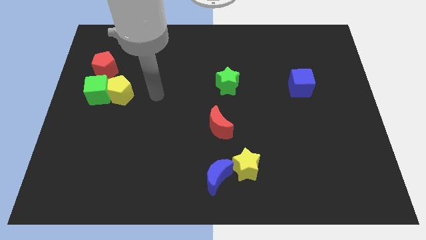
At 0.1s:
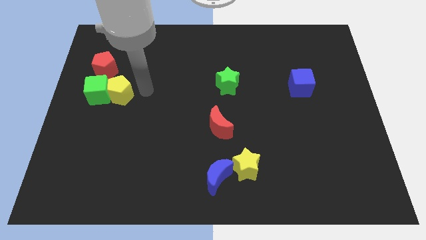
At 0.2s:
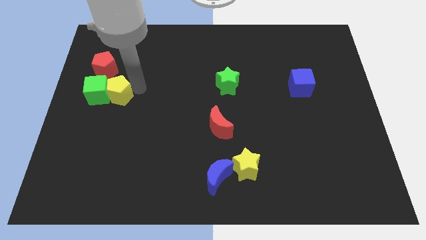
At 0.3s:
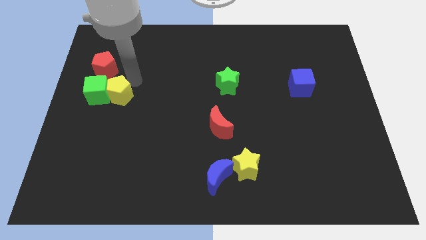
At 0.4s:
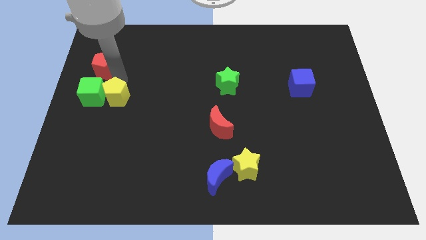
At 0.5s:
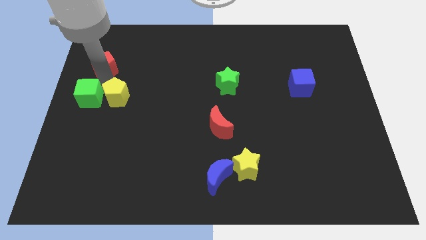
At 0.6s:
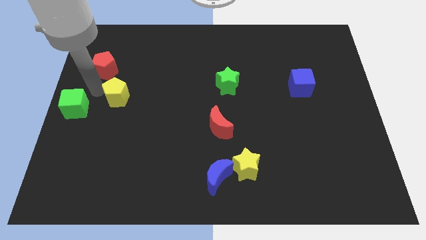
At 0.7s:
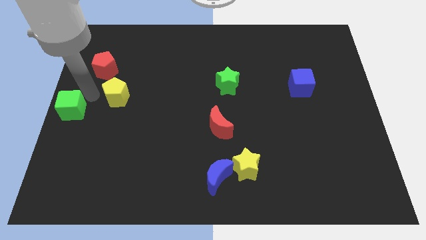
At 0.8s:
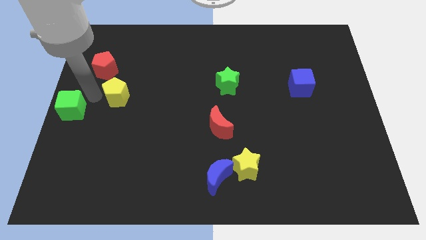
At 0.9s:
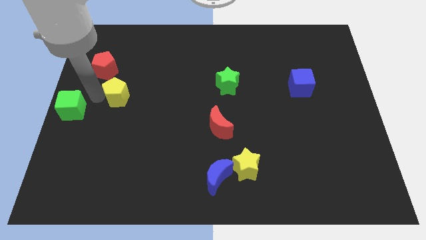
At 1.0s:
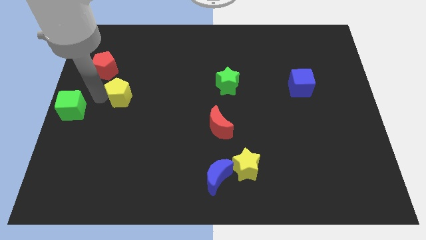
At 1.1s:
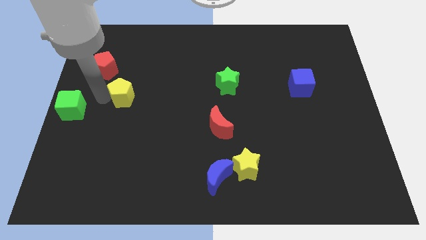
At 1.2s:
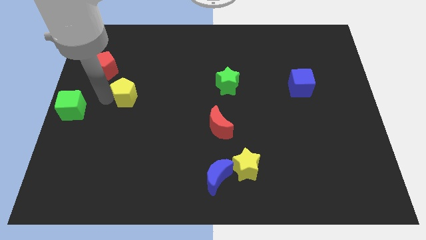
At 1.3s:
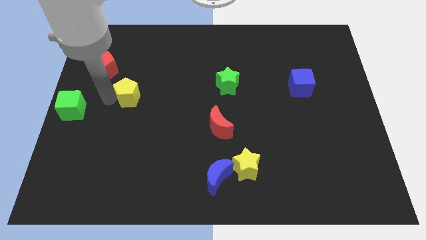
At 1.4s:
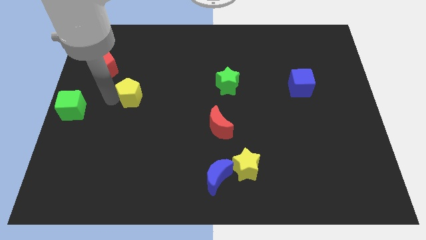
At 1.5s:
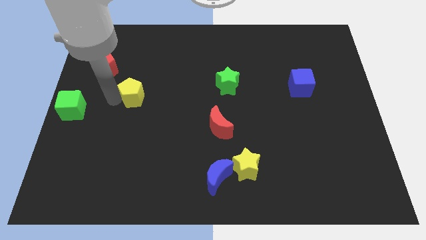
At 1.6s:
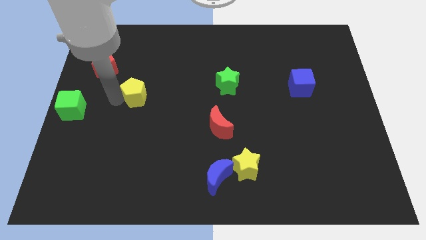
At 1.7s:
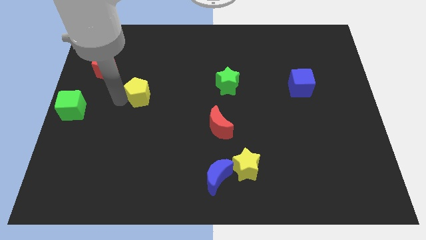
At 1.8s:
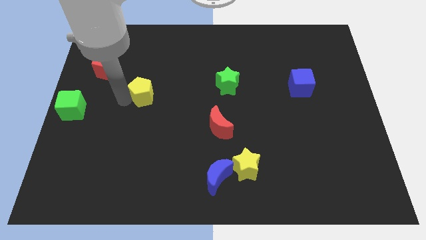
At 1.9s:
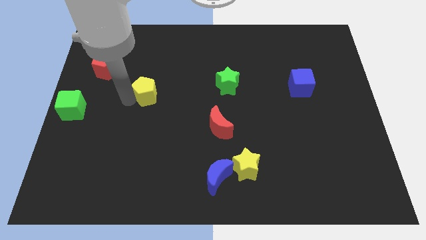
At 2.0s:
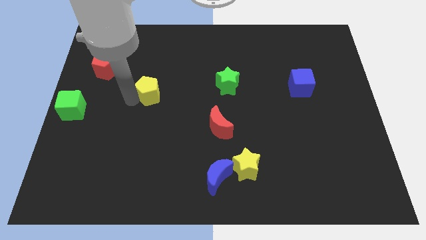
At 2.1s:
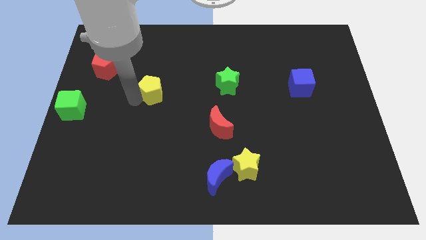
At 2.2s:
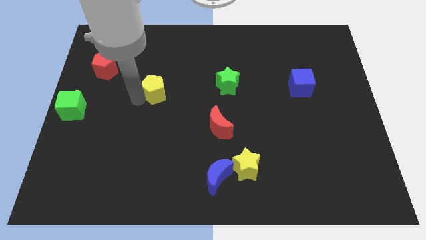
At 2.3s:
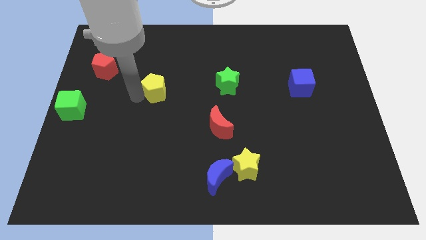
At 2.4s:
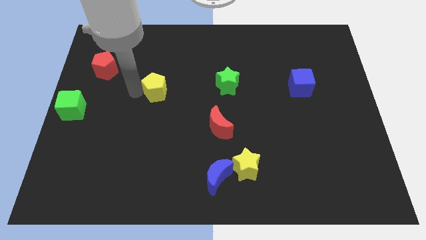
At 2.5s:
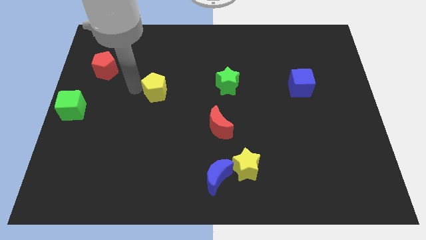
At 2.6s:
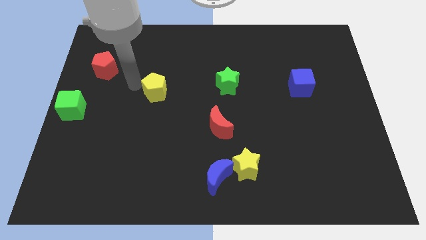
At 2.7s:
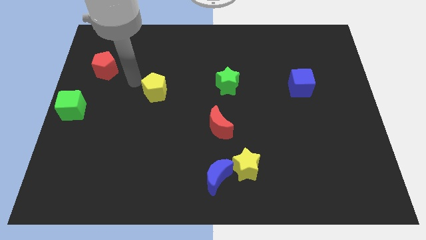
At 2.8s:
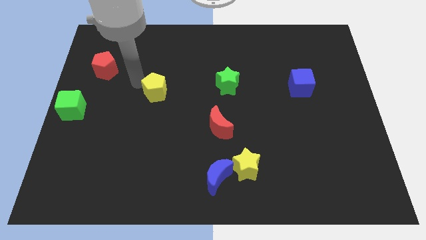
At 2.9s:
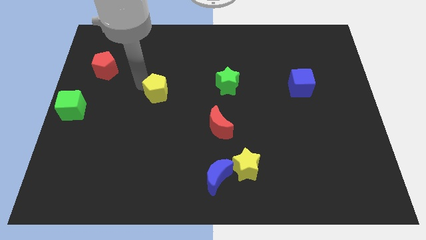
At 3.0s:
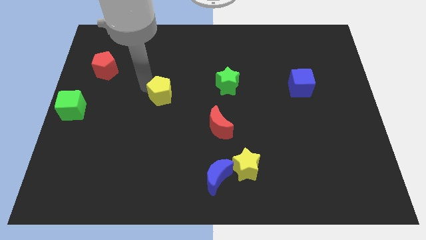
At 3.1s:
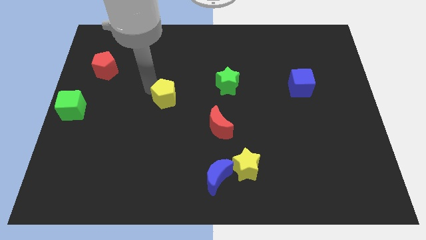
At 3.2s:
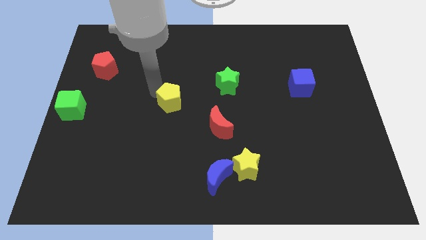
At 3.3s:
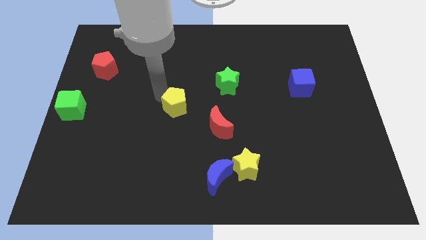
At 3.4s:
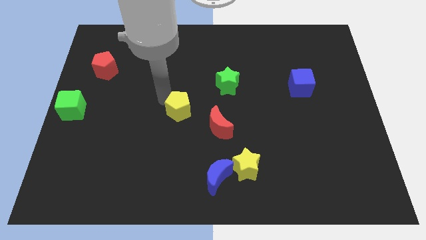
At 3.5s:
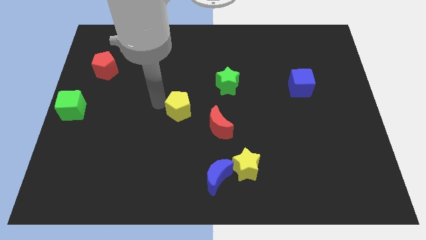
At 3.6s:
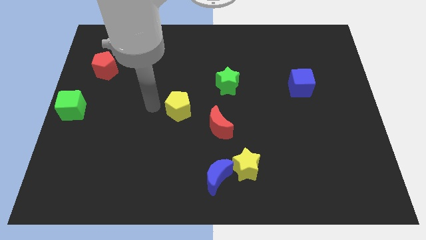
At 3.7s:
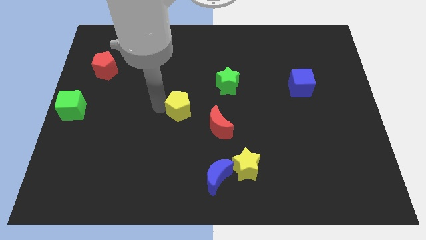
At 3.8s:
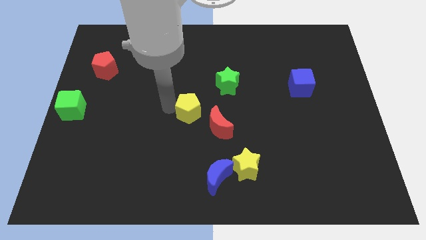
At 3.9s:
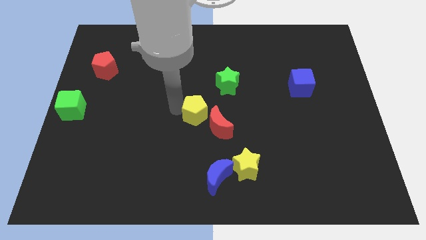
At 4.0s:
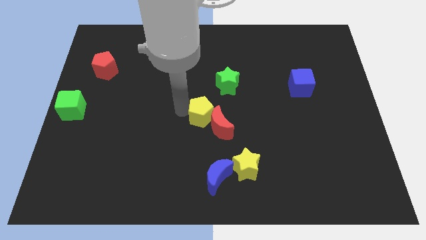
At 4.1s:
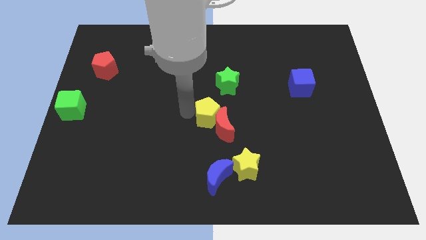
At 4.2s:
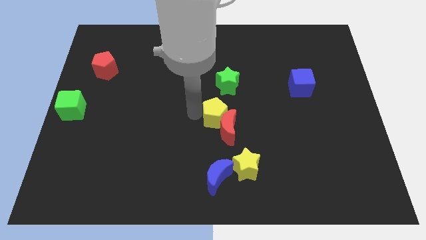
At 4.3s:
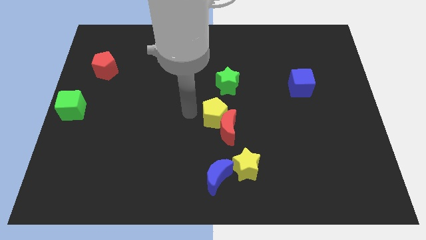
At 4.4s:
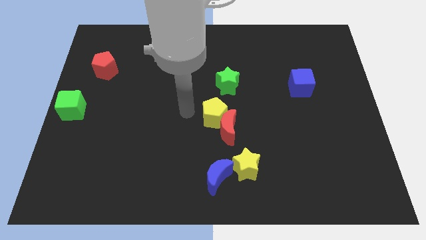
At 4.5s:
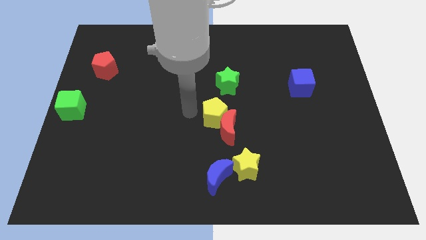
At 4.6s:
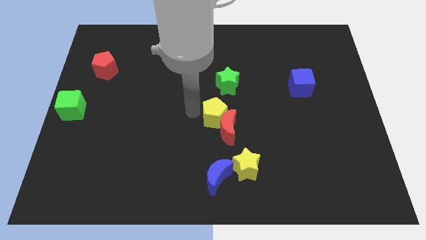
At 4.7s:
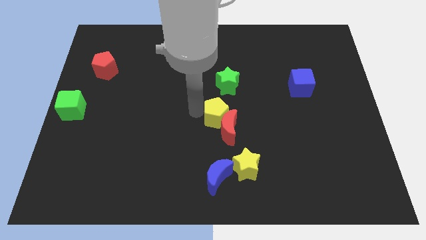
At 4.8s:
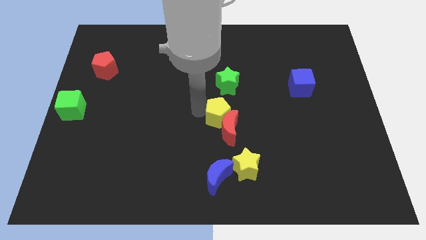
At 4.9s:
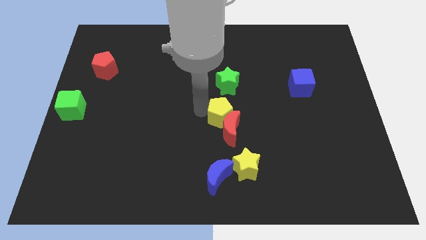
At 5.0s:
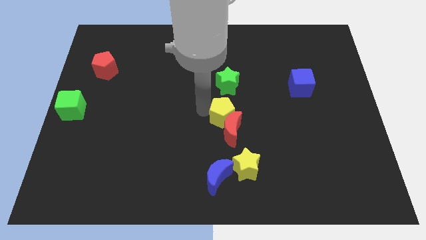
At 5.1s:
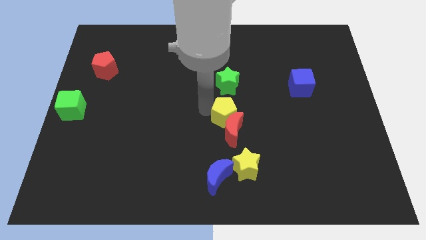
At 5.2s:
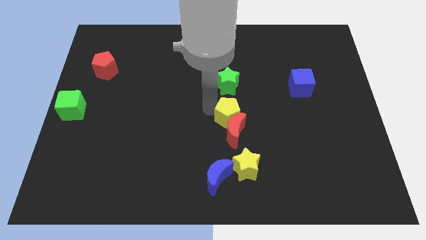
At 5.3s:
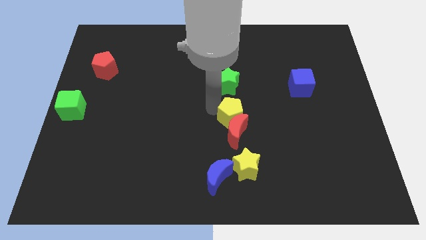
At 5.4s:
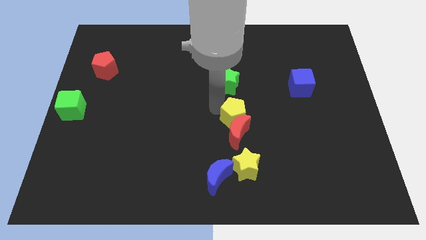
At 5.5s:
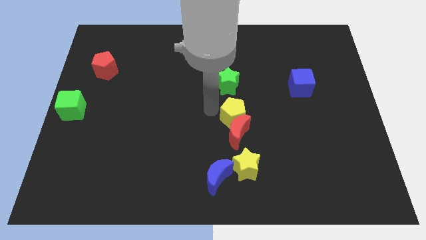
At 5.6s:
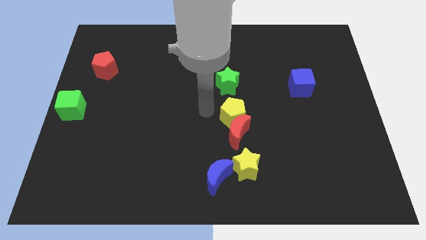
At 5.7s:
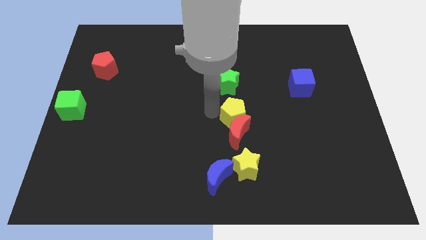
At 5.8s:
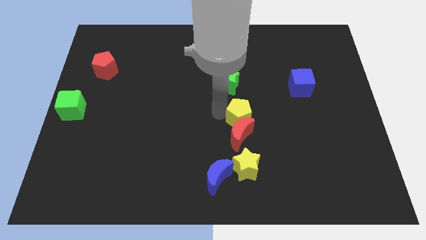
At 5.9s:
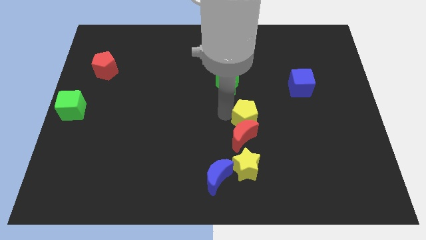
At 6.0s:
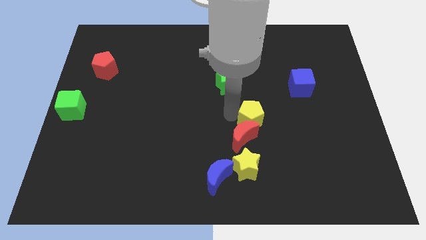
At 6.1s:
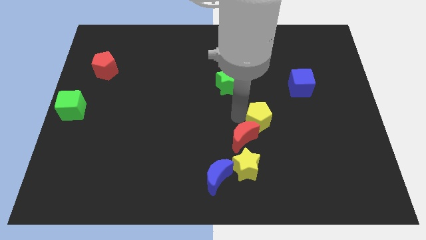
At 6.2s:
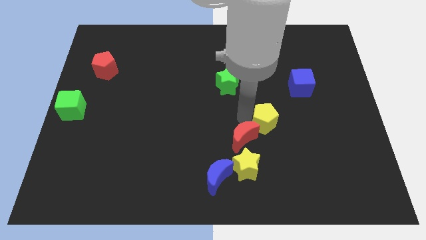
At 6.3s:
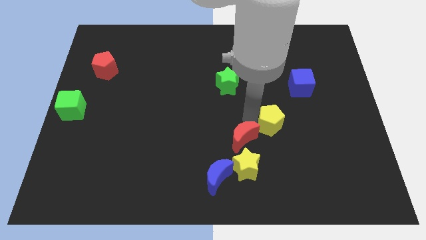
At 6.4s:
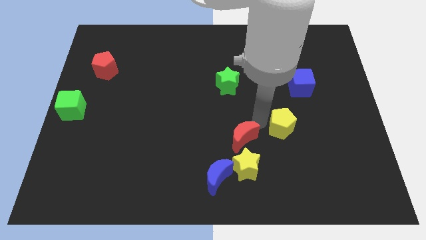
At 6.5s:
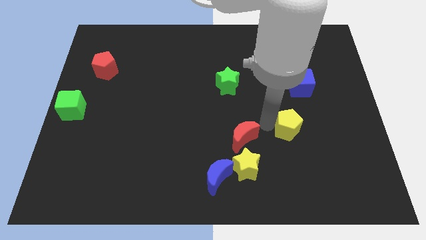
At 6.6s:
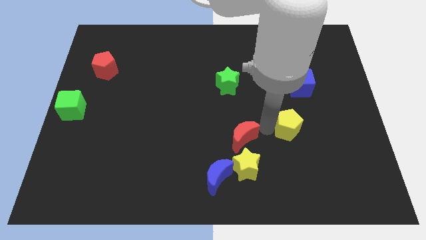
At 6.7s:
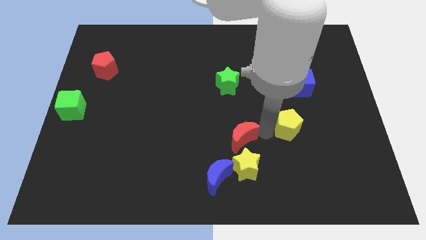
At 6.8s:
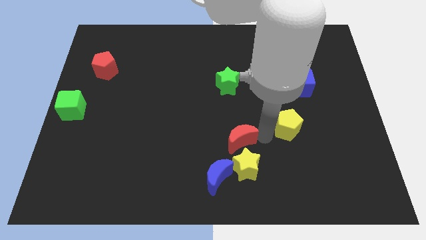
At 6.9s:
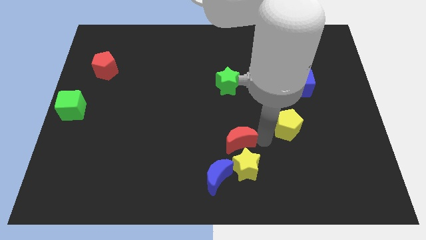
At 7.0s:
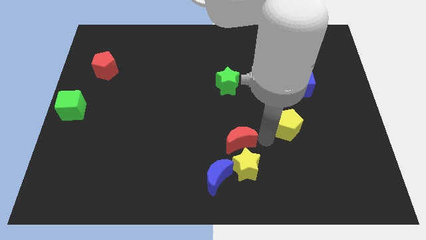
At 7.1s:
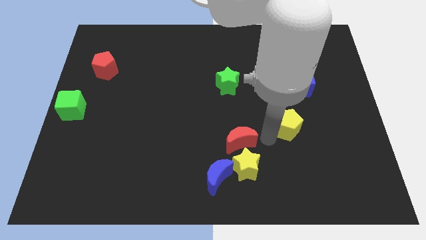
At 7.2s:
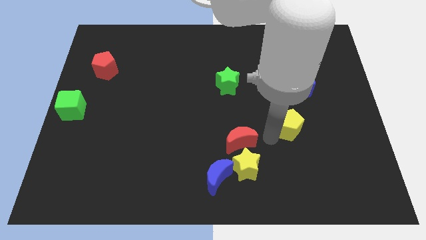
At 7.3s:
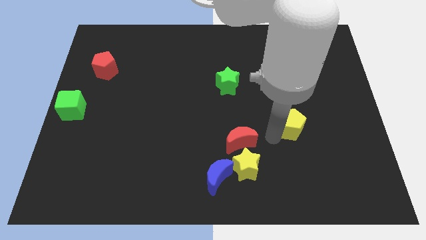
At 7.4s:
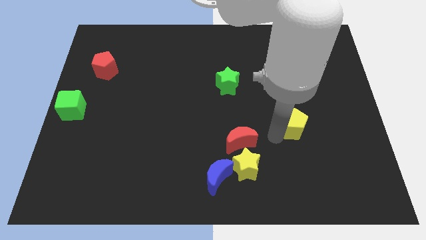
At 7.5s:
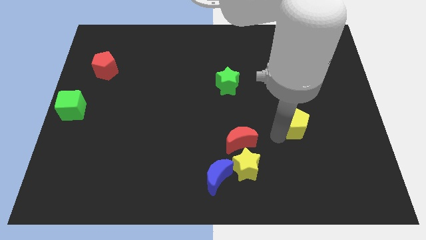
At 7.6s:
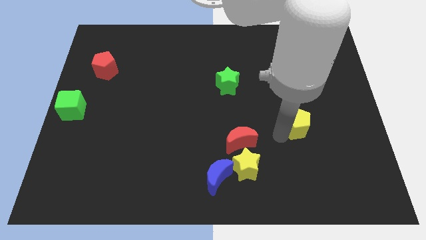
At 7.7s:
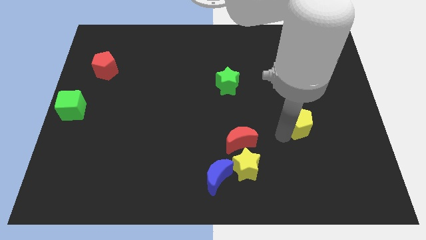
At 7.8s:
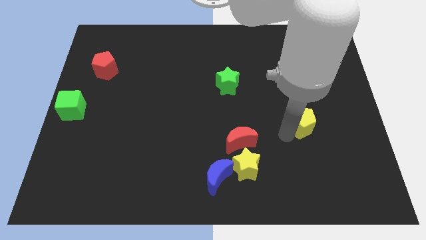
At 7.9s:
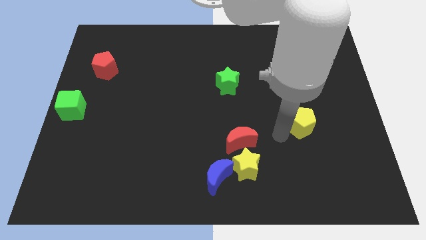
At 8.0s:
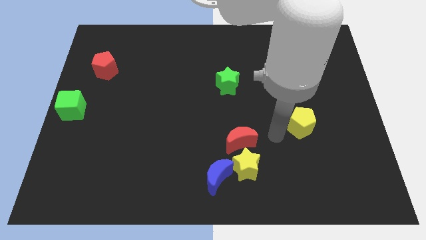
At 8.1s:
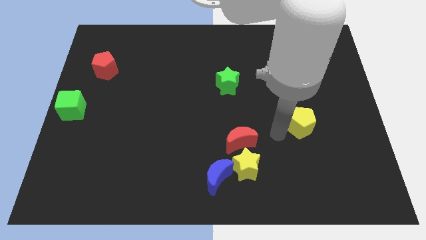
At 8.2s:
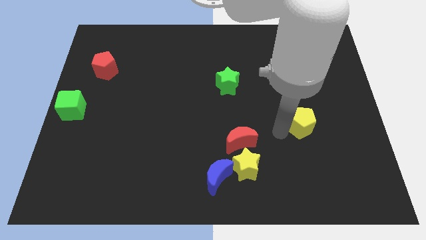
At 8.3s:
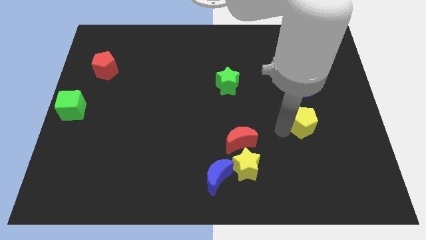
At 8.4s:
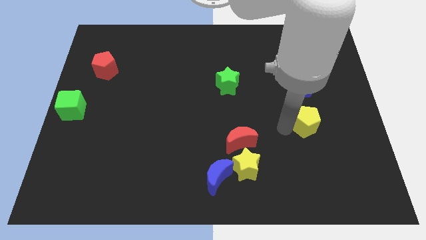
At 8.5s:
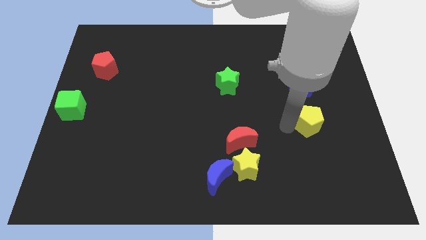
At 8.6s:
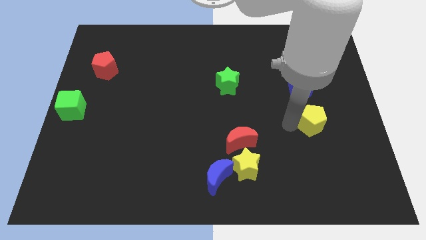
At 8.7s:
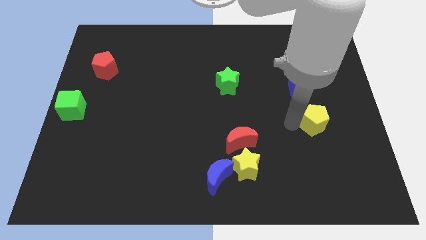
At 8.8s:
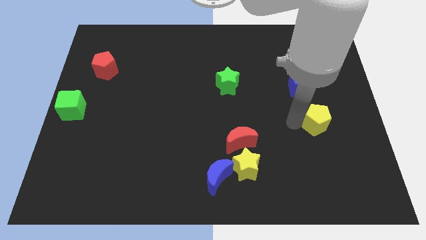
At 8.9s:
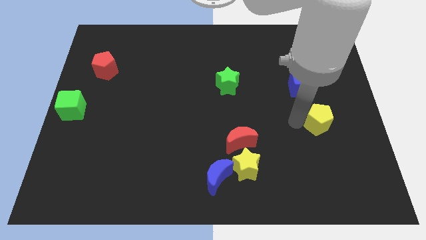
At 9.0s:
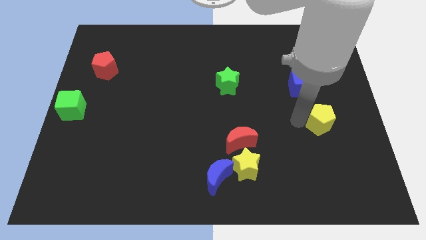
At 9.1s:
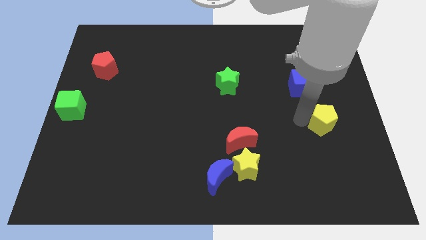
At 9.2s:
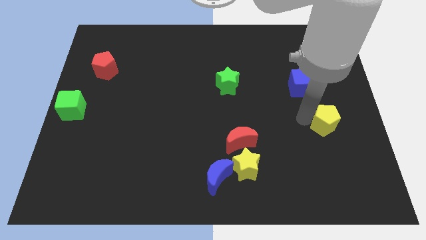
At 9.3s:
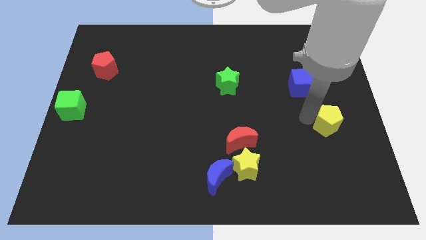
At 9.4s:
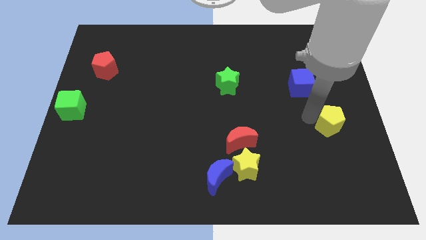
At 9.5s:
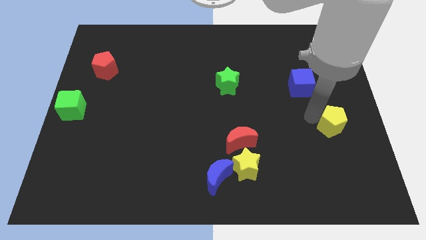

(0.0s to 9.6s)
push the yellow pentagon to the right side
